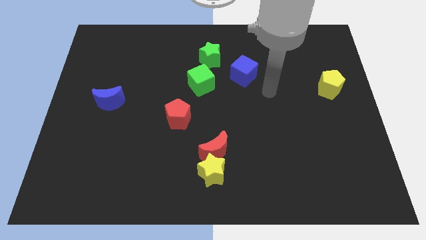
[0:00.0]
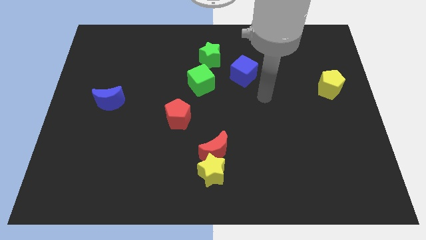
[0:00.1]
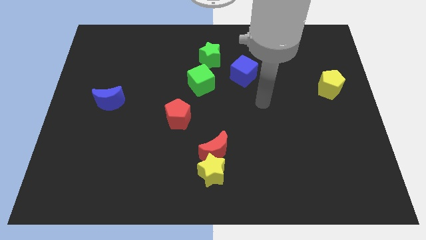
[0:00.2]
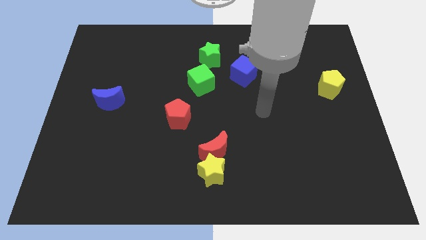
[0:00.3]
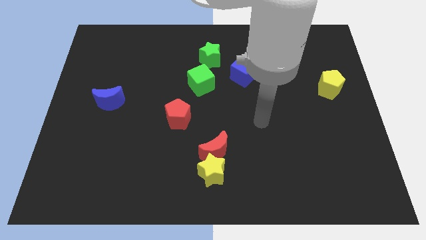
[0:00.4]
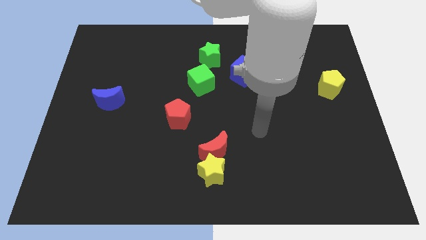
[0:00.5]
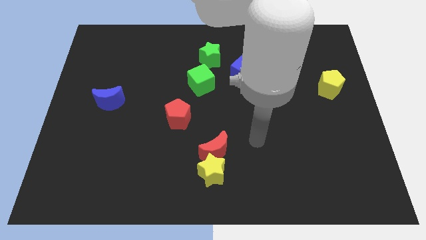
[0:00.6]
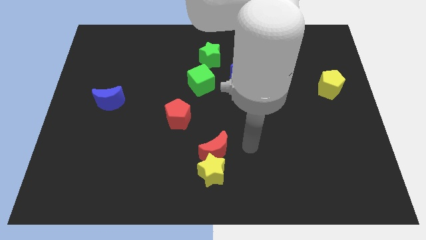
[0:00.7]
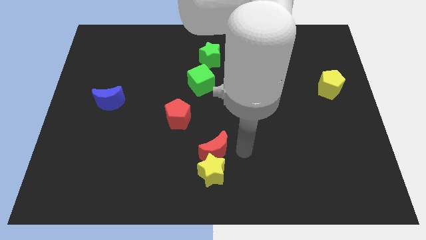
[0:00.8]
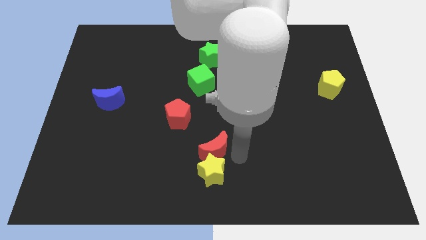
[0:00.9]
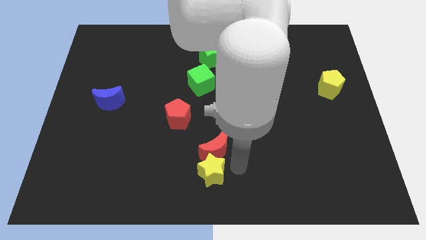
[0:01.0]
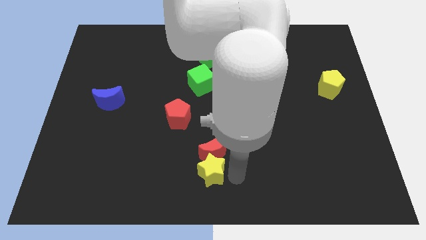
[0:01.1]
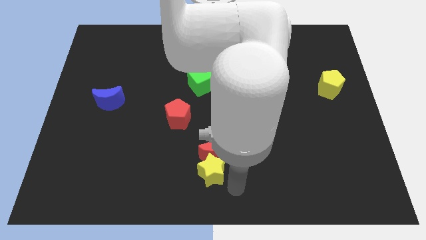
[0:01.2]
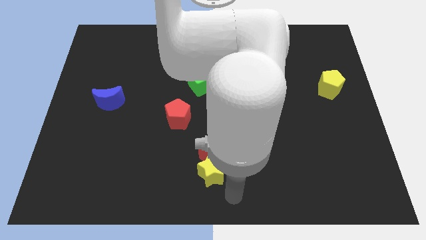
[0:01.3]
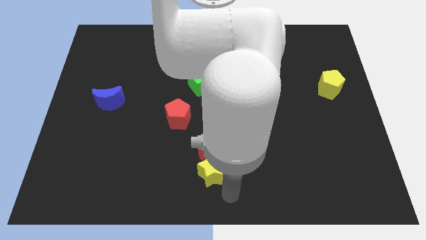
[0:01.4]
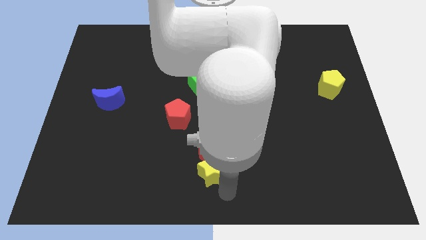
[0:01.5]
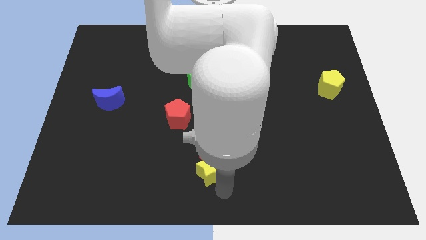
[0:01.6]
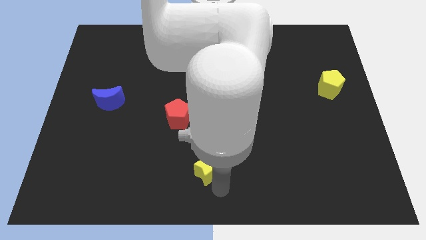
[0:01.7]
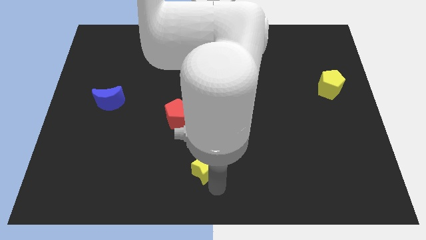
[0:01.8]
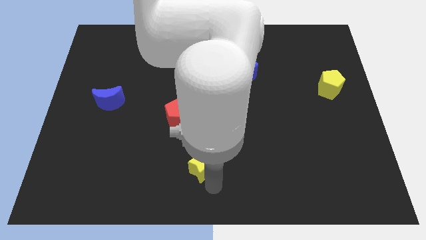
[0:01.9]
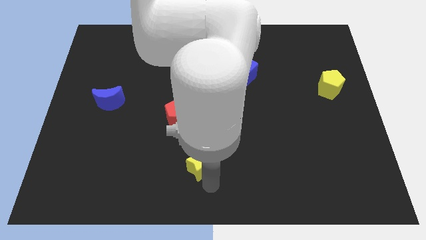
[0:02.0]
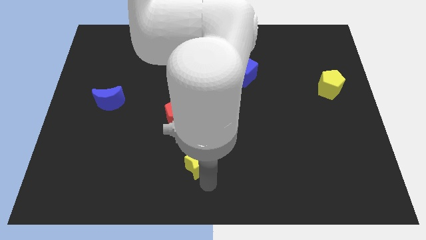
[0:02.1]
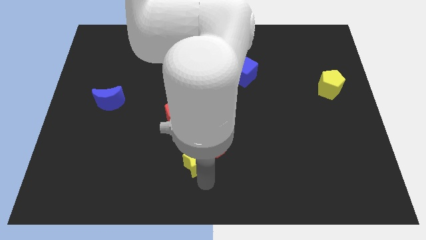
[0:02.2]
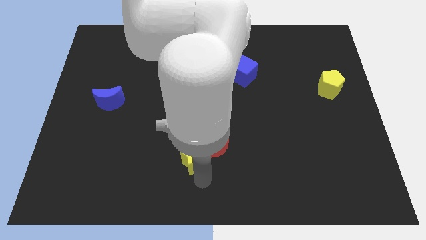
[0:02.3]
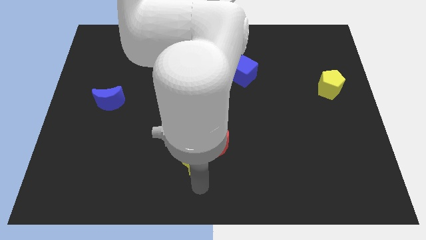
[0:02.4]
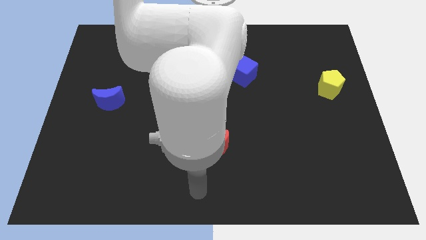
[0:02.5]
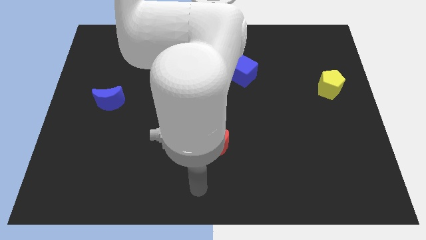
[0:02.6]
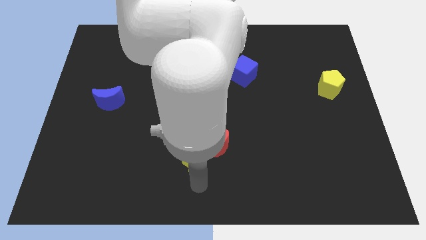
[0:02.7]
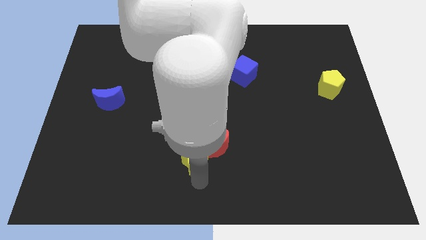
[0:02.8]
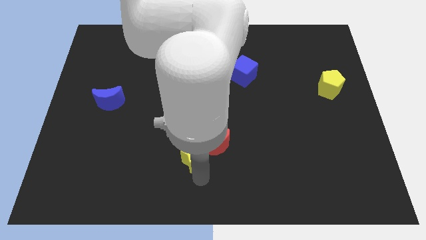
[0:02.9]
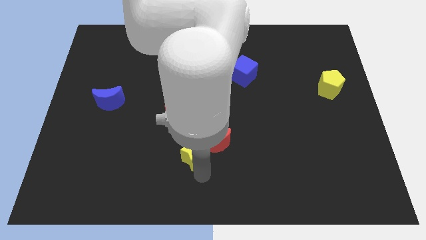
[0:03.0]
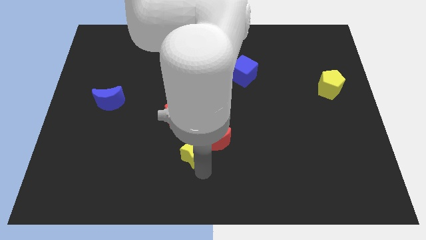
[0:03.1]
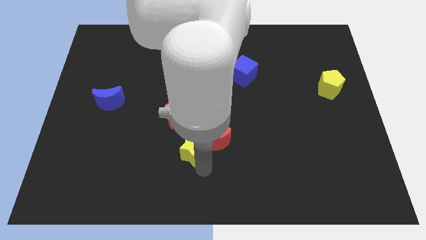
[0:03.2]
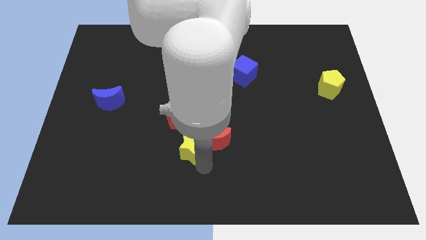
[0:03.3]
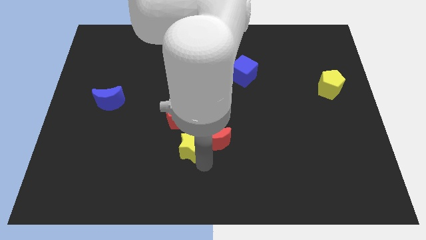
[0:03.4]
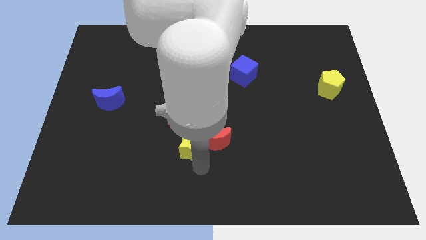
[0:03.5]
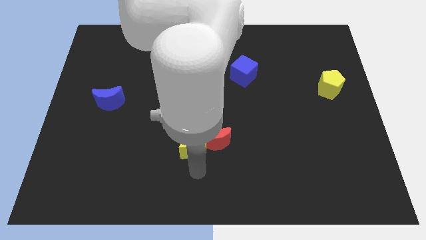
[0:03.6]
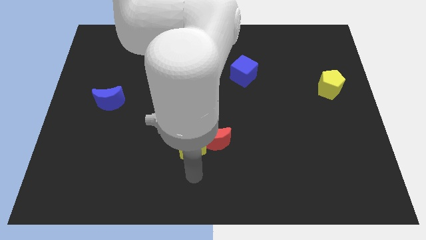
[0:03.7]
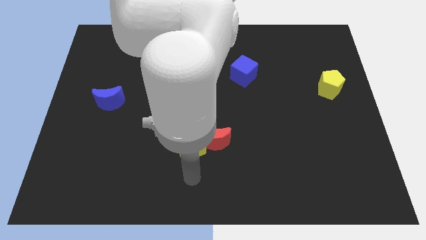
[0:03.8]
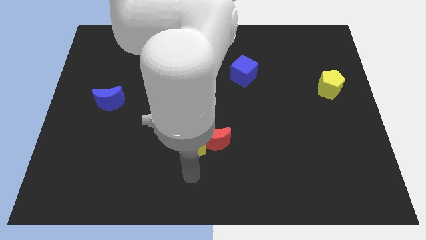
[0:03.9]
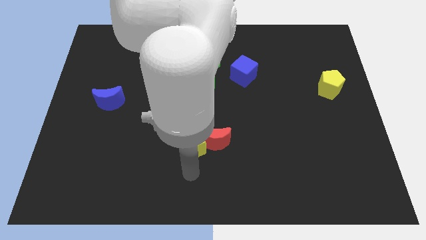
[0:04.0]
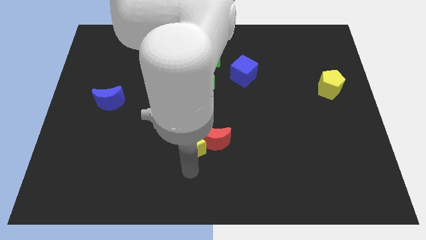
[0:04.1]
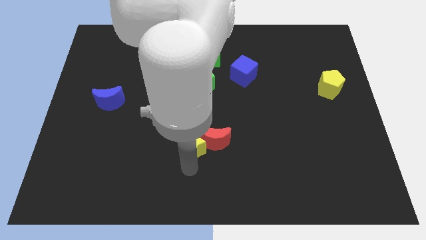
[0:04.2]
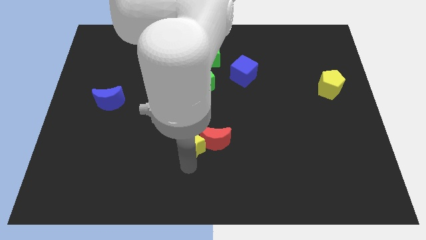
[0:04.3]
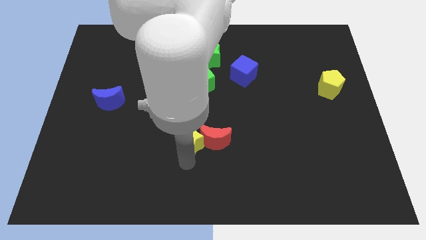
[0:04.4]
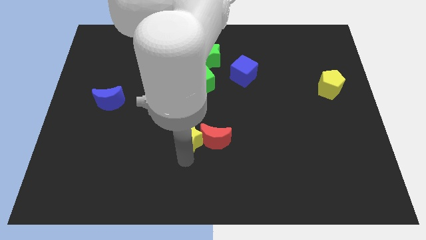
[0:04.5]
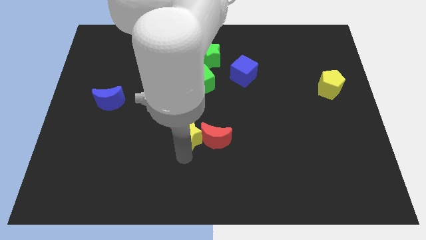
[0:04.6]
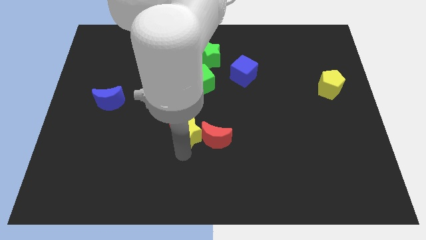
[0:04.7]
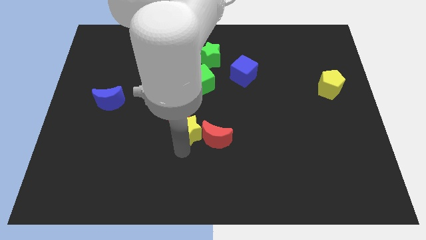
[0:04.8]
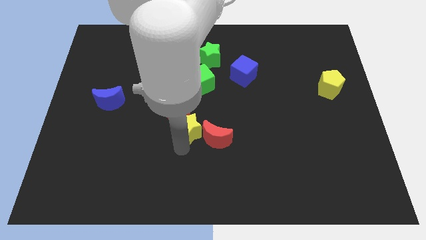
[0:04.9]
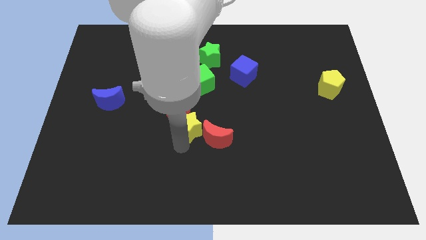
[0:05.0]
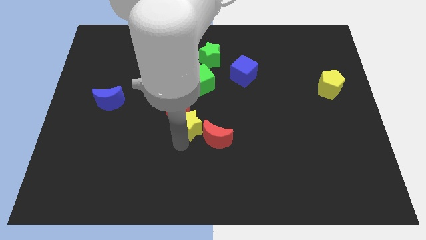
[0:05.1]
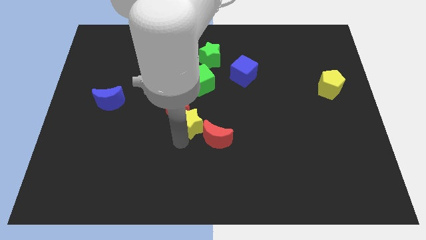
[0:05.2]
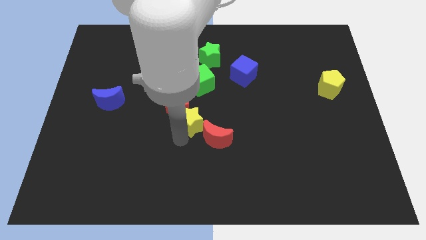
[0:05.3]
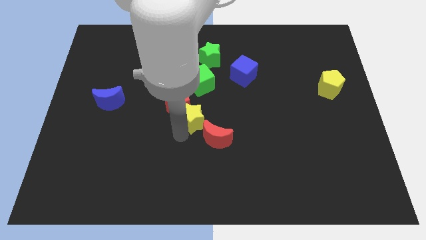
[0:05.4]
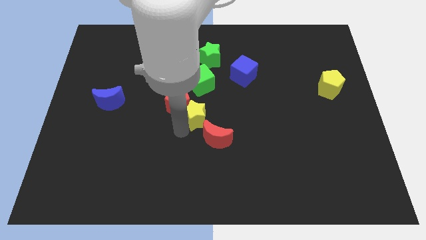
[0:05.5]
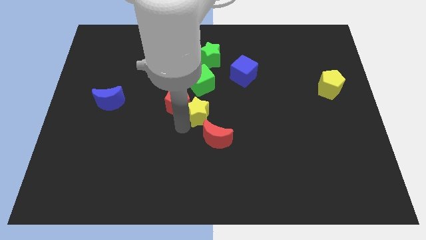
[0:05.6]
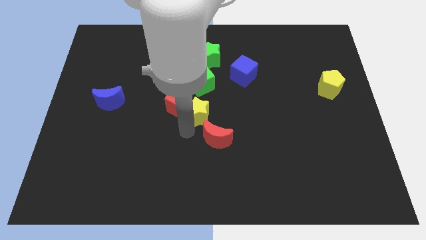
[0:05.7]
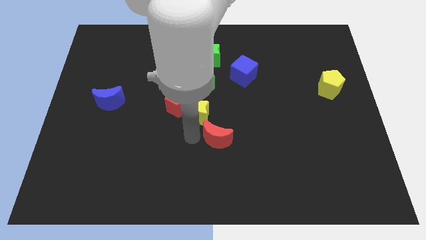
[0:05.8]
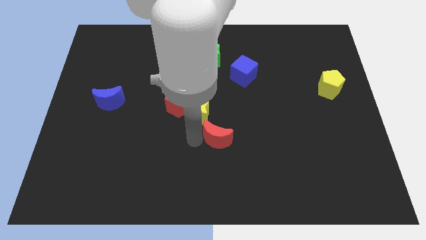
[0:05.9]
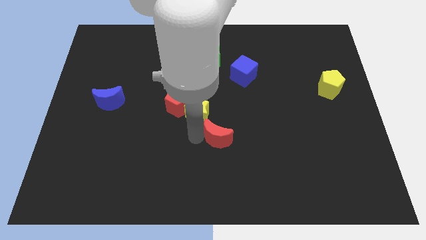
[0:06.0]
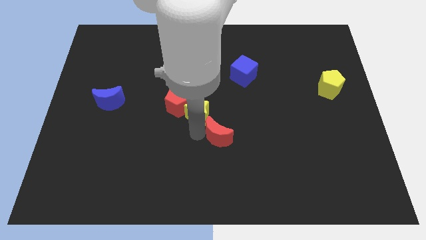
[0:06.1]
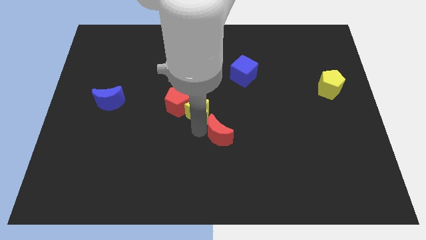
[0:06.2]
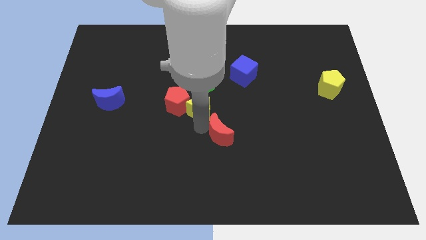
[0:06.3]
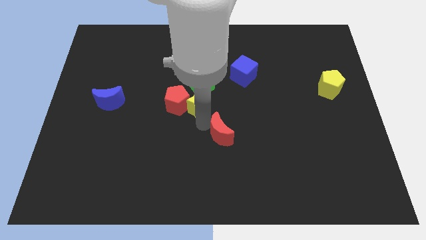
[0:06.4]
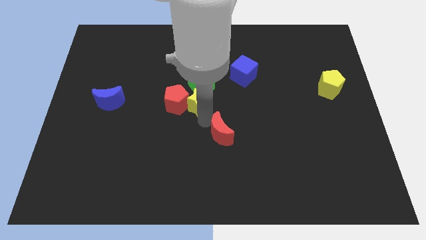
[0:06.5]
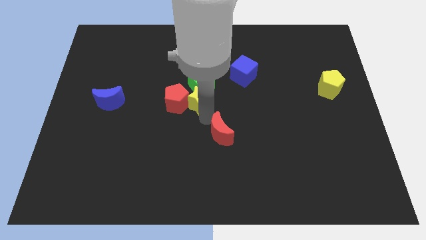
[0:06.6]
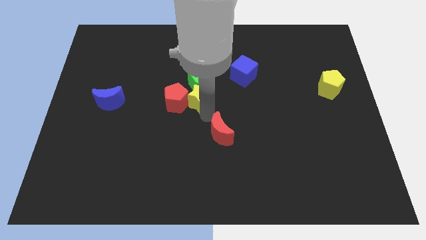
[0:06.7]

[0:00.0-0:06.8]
put the yellow star close to the green cube
